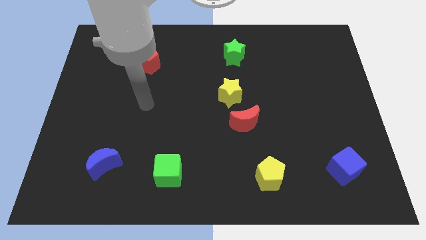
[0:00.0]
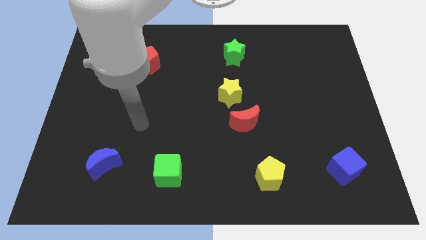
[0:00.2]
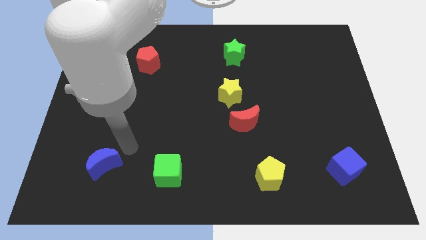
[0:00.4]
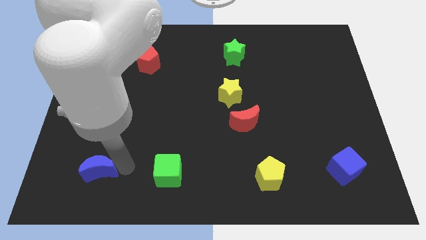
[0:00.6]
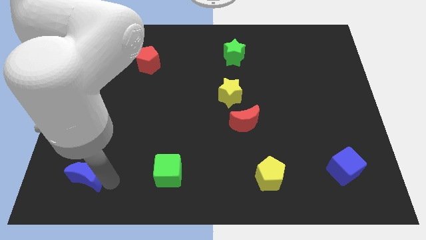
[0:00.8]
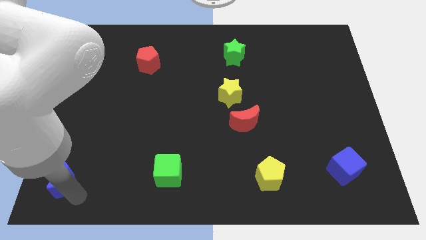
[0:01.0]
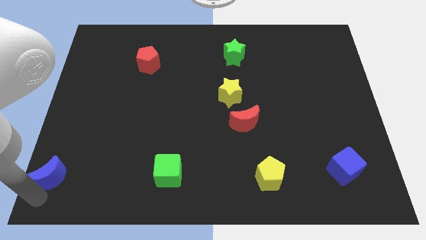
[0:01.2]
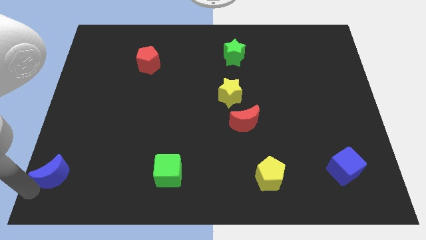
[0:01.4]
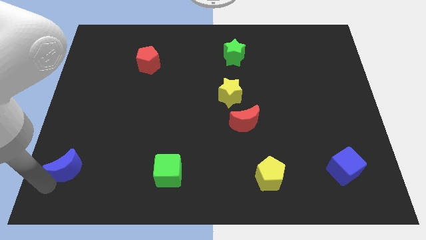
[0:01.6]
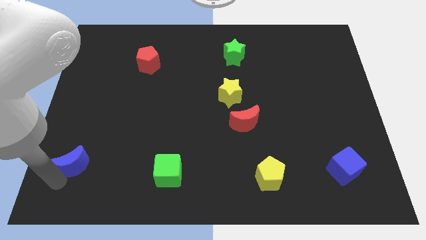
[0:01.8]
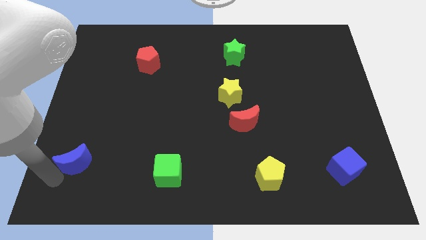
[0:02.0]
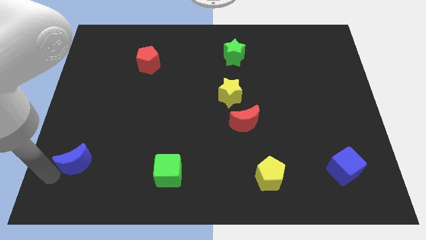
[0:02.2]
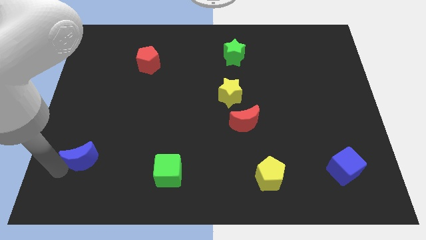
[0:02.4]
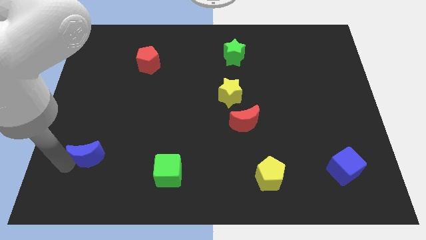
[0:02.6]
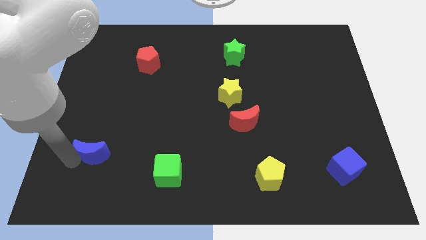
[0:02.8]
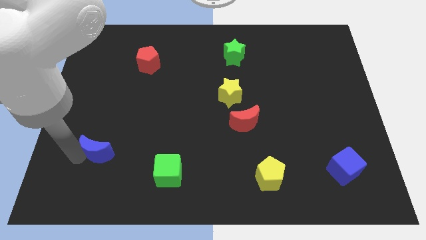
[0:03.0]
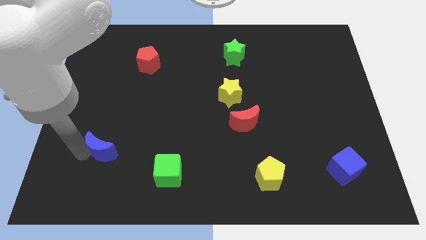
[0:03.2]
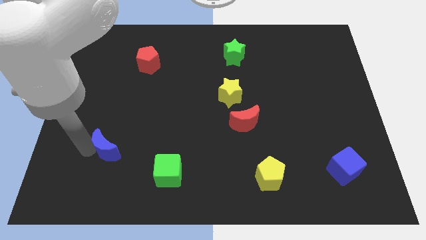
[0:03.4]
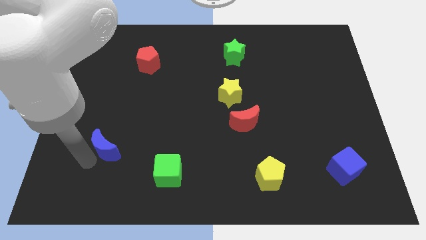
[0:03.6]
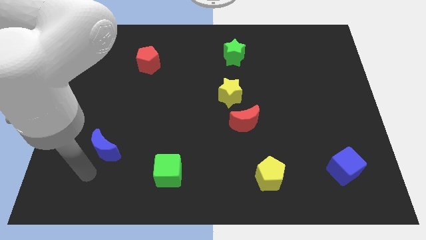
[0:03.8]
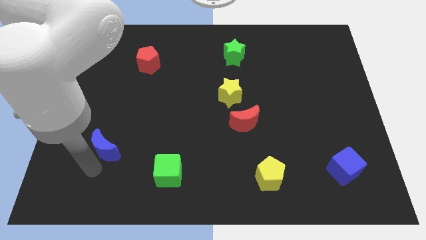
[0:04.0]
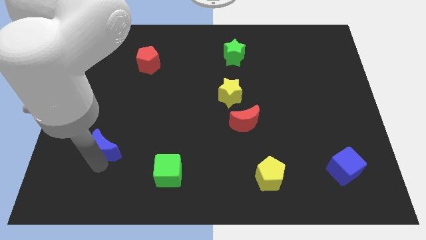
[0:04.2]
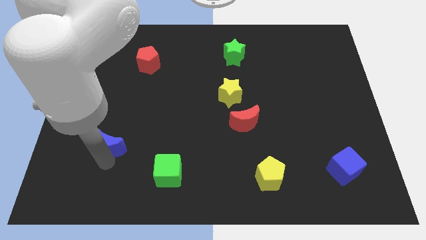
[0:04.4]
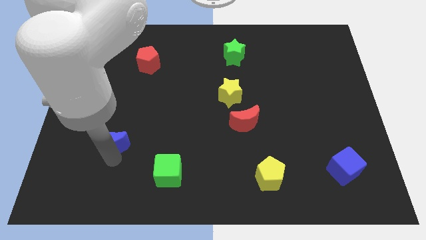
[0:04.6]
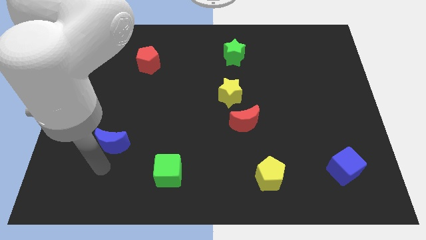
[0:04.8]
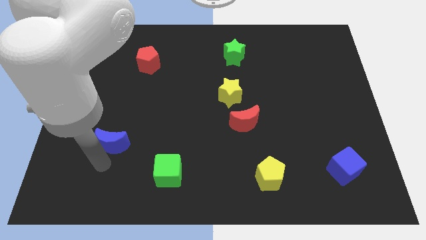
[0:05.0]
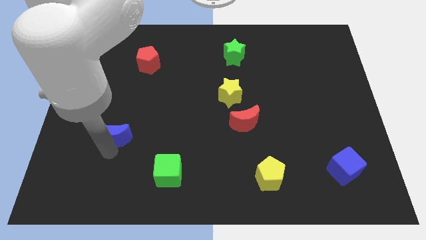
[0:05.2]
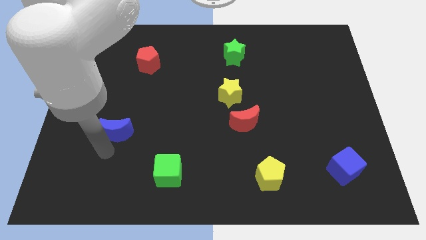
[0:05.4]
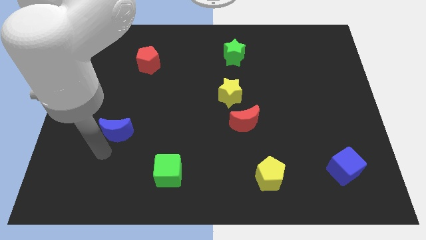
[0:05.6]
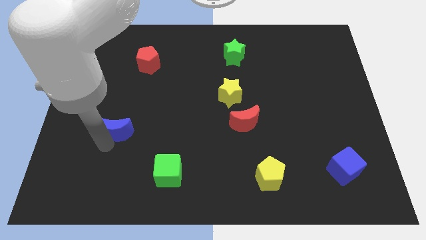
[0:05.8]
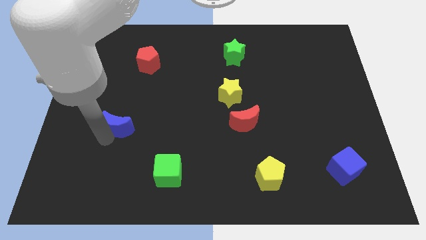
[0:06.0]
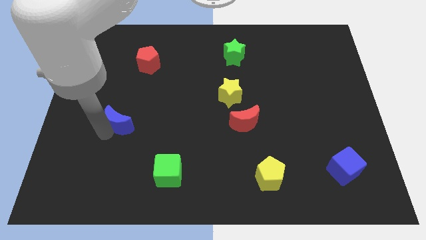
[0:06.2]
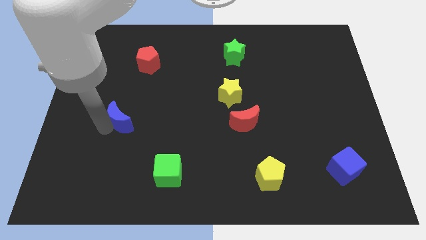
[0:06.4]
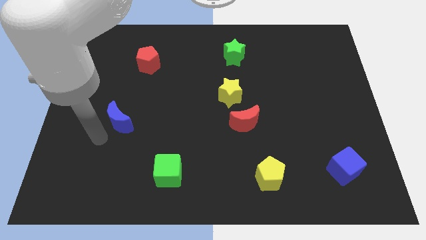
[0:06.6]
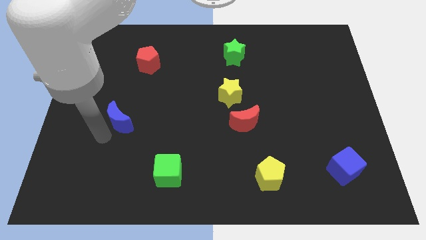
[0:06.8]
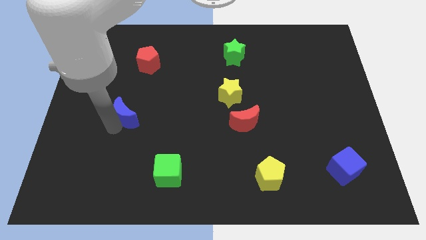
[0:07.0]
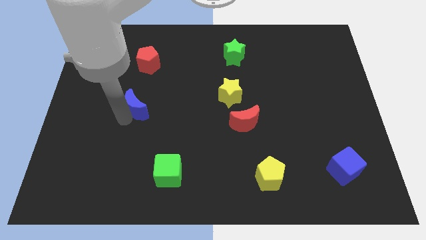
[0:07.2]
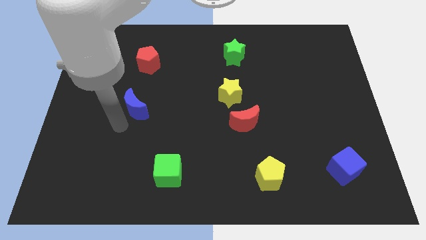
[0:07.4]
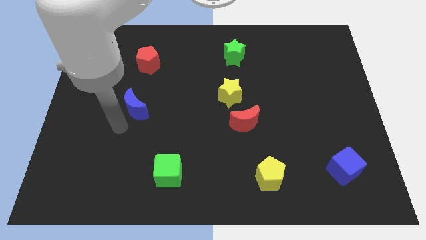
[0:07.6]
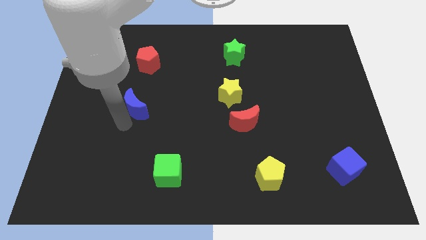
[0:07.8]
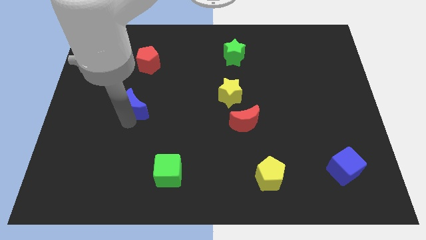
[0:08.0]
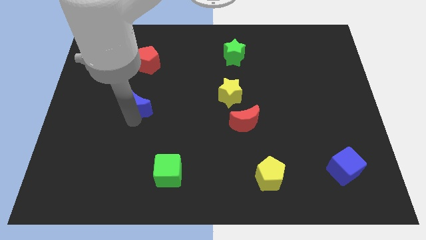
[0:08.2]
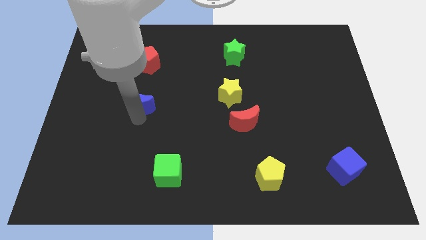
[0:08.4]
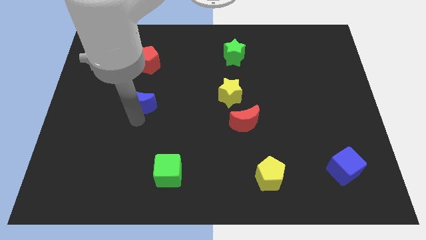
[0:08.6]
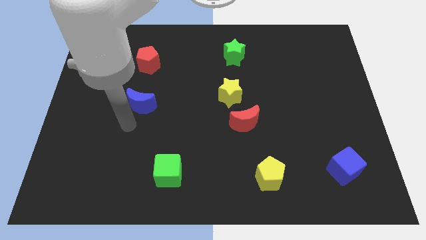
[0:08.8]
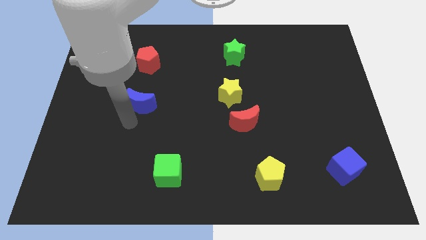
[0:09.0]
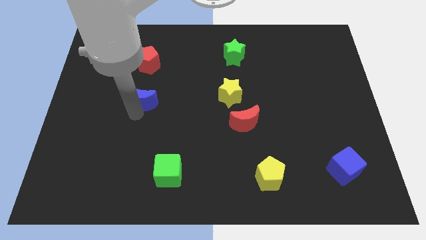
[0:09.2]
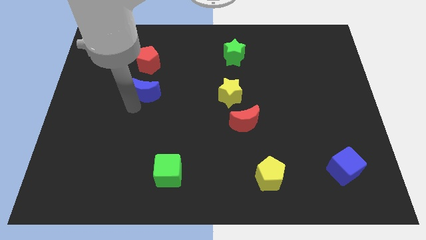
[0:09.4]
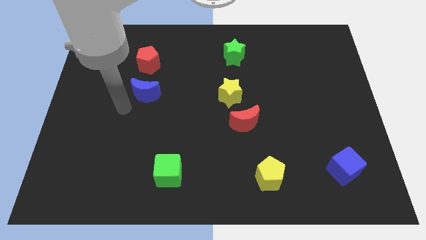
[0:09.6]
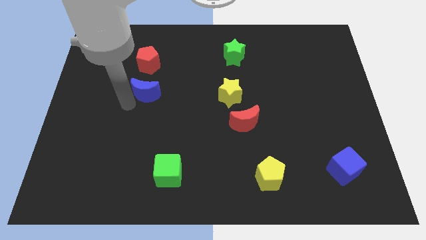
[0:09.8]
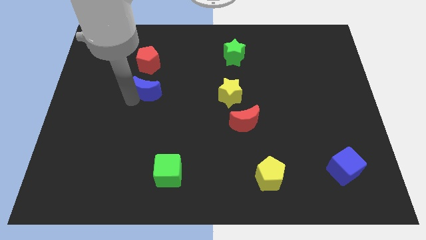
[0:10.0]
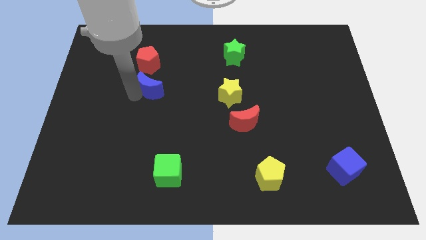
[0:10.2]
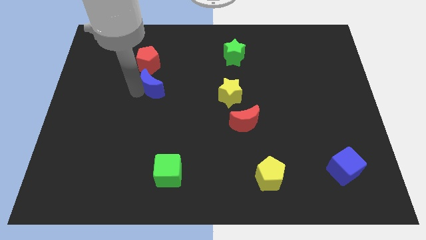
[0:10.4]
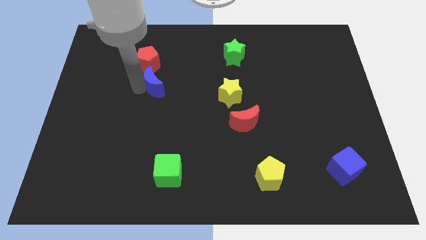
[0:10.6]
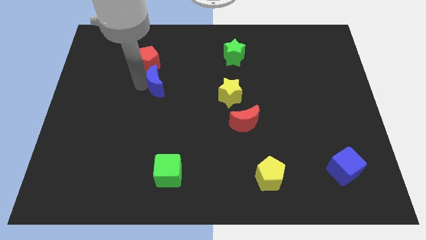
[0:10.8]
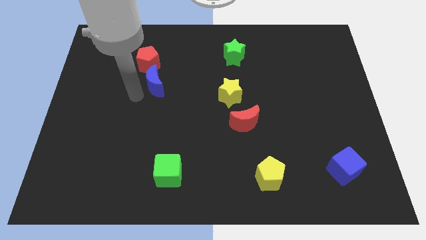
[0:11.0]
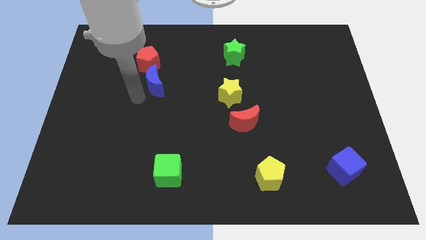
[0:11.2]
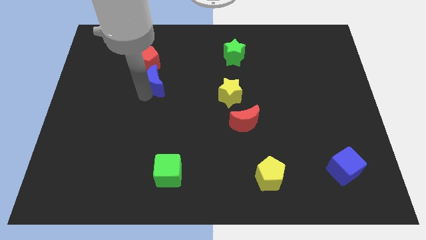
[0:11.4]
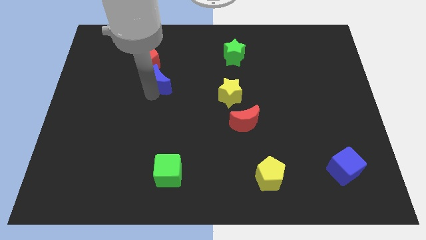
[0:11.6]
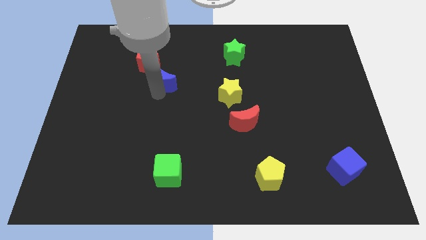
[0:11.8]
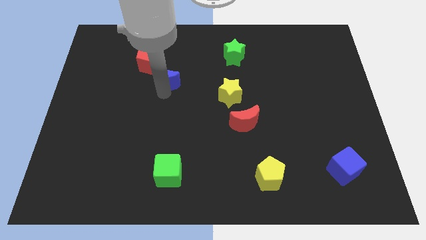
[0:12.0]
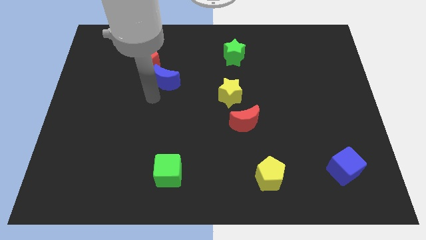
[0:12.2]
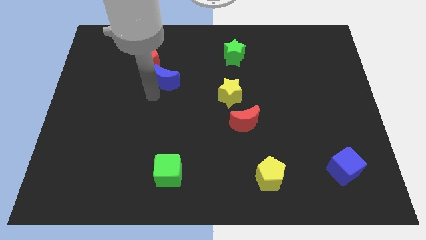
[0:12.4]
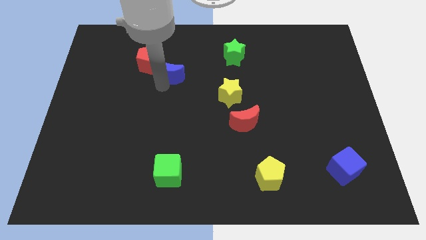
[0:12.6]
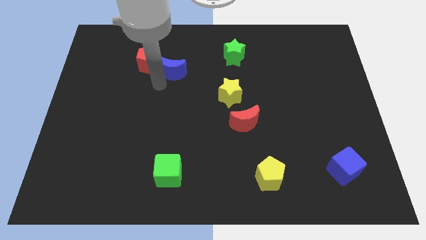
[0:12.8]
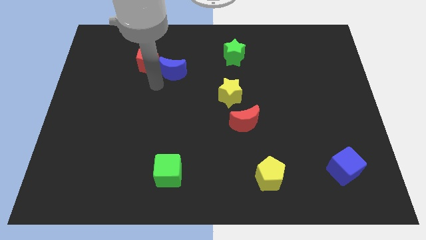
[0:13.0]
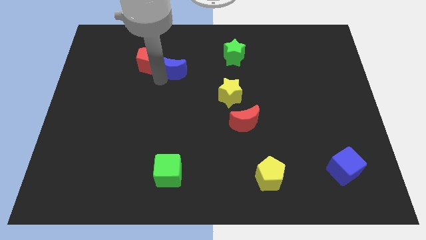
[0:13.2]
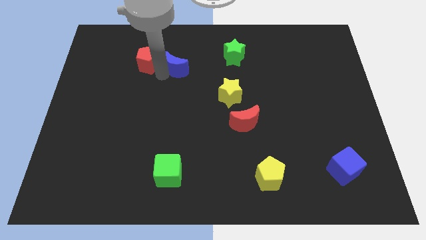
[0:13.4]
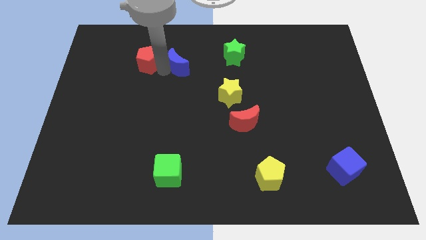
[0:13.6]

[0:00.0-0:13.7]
move the blue moon just left of the green star
